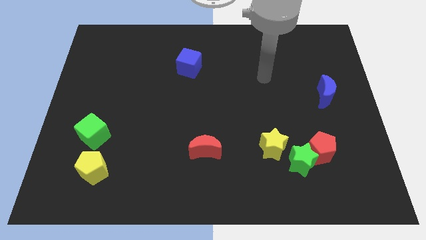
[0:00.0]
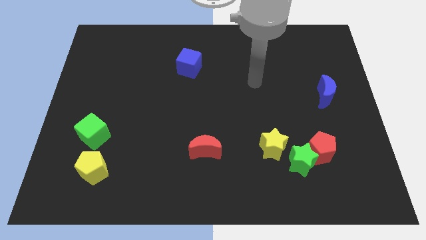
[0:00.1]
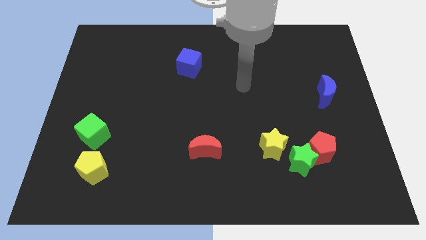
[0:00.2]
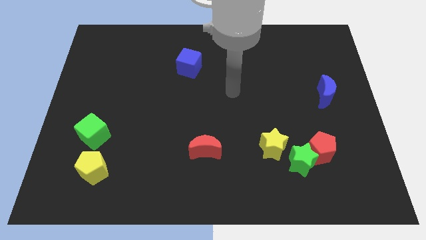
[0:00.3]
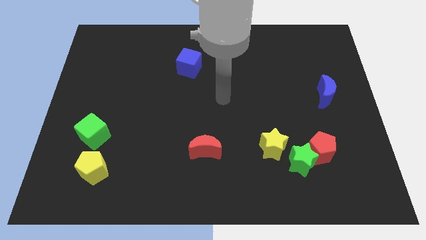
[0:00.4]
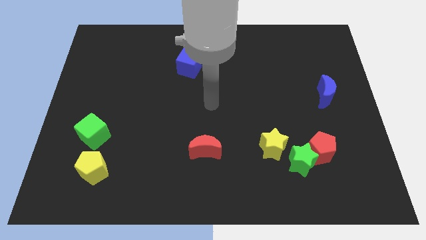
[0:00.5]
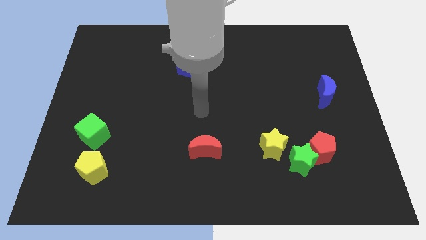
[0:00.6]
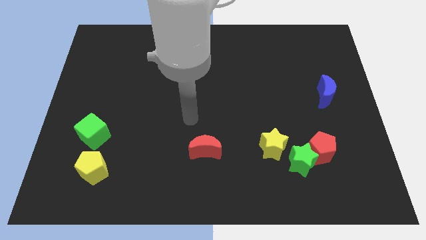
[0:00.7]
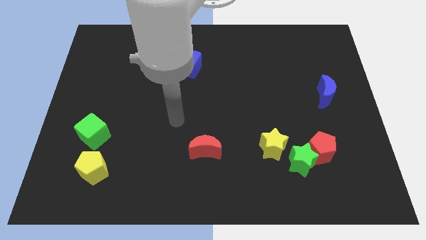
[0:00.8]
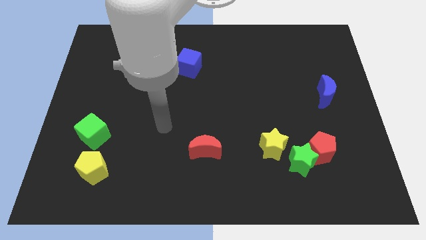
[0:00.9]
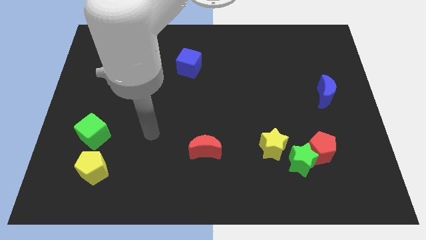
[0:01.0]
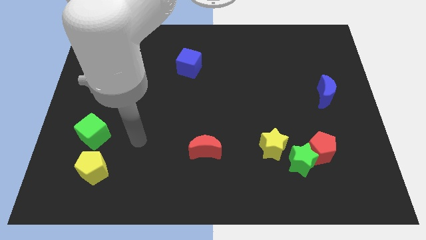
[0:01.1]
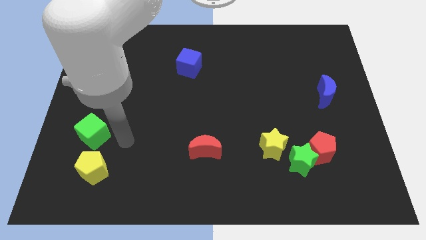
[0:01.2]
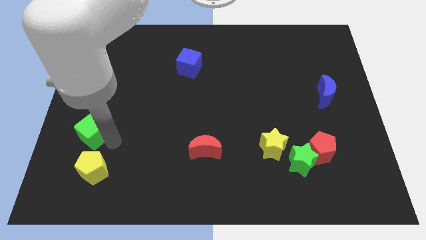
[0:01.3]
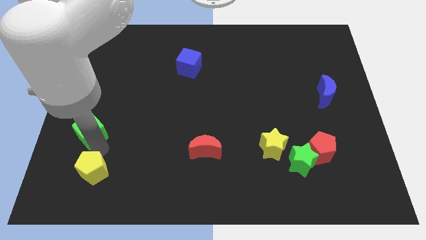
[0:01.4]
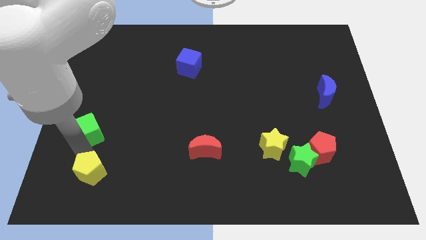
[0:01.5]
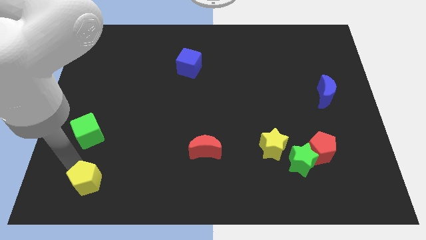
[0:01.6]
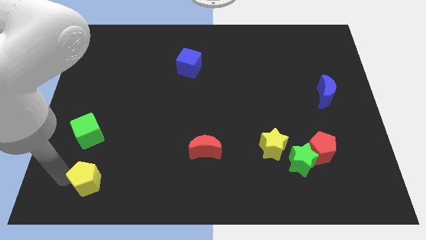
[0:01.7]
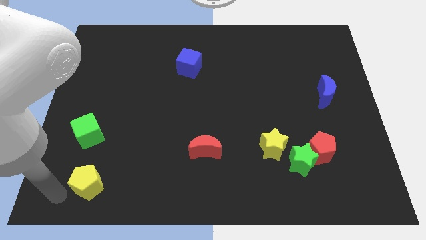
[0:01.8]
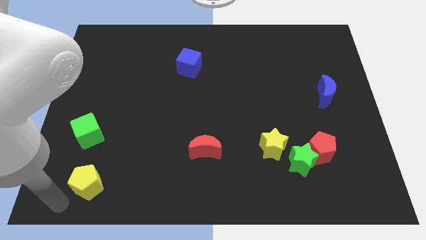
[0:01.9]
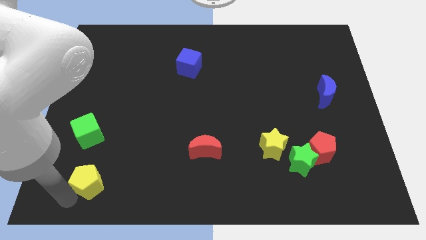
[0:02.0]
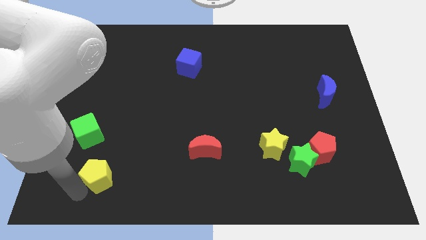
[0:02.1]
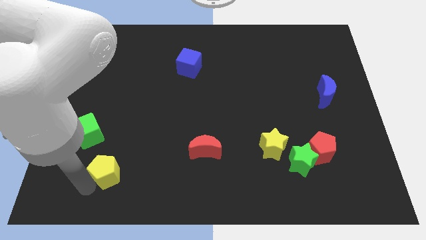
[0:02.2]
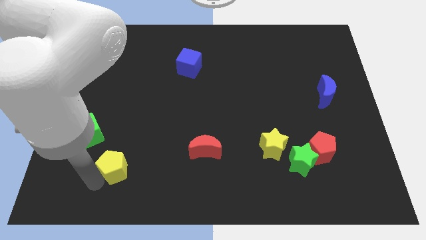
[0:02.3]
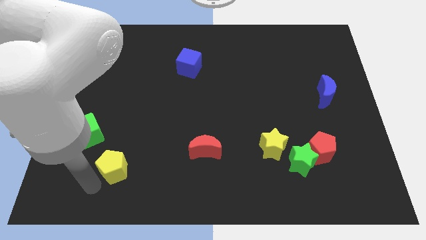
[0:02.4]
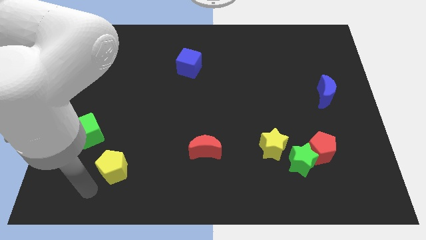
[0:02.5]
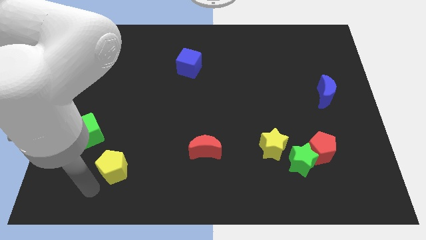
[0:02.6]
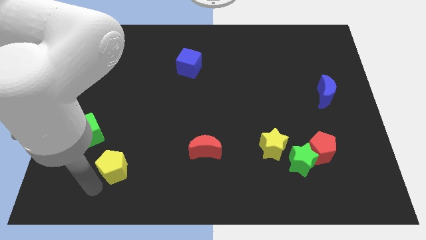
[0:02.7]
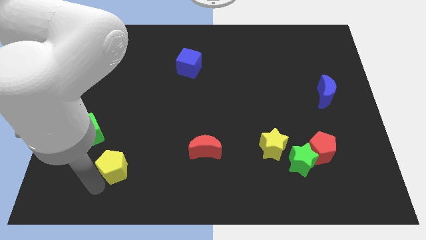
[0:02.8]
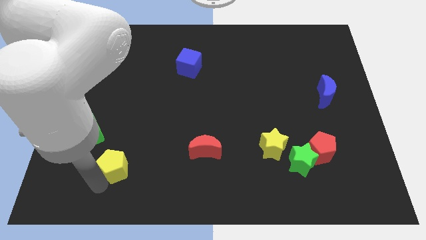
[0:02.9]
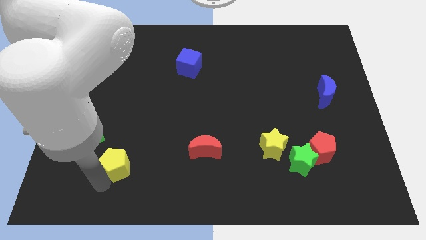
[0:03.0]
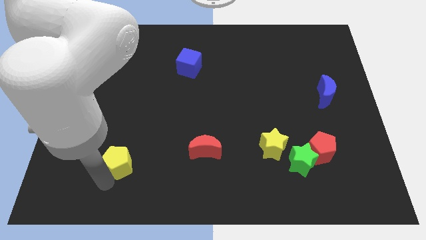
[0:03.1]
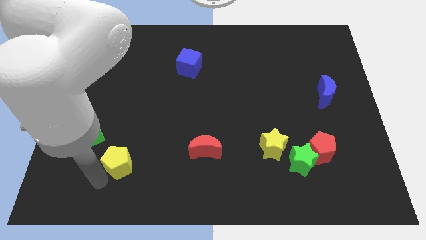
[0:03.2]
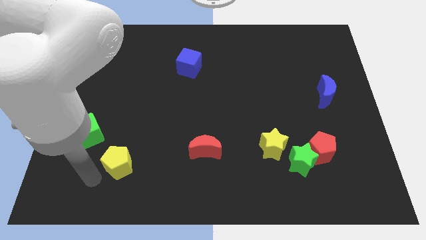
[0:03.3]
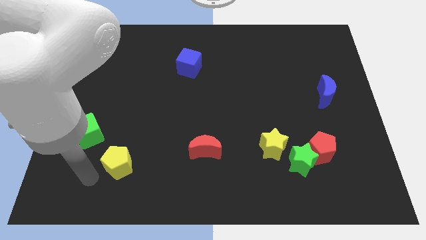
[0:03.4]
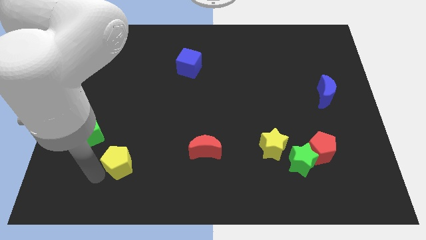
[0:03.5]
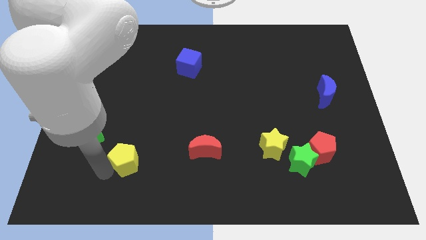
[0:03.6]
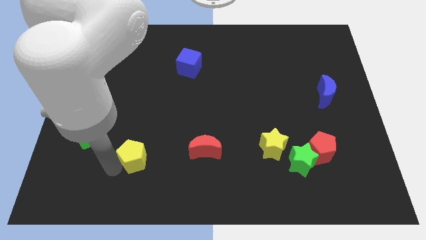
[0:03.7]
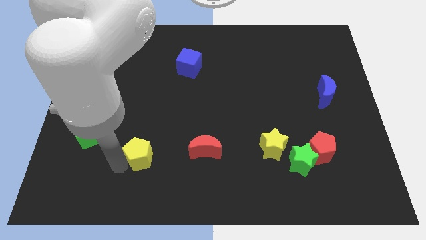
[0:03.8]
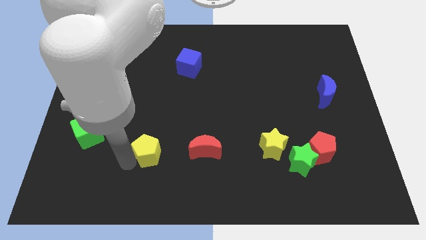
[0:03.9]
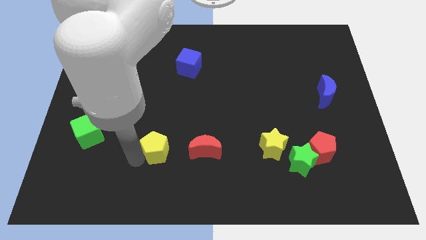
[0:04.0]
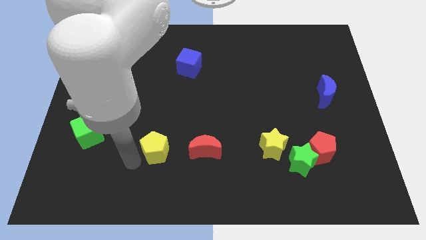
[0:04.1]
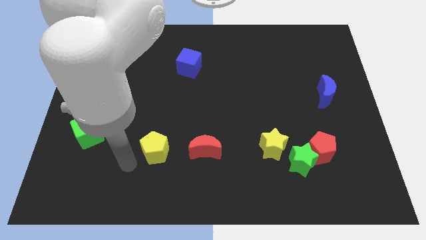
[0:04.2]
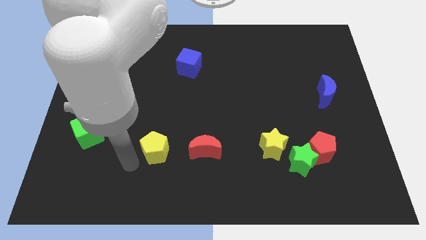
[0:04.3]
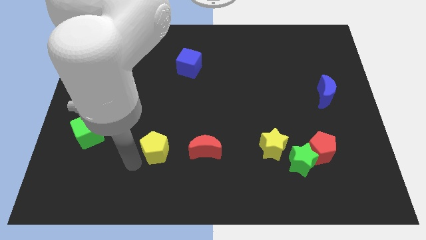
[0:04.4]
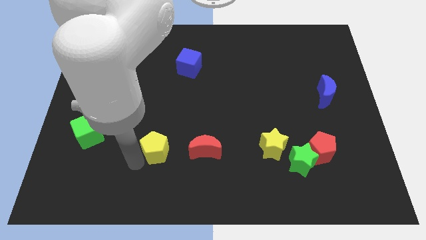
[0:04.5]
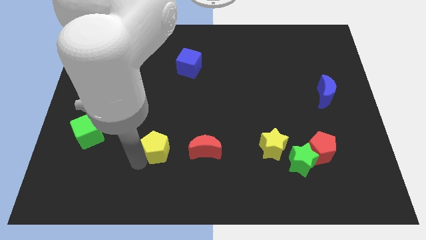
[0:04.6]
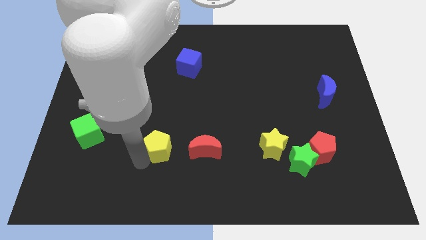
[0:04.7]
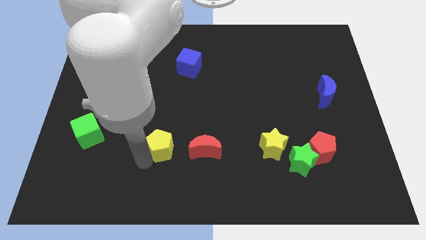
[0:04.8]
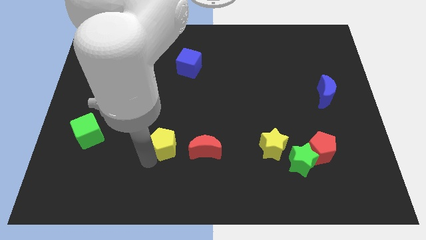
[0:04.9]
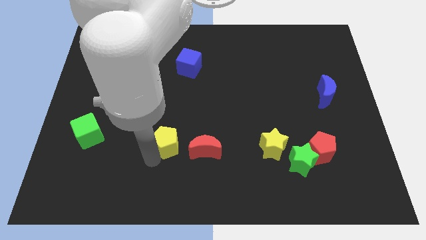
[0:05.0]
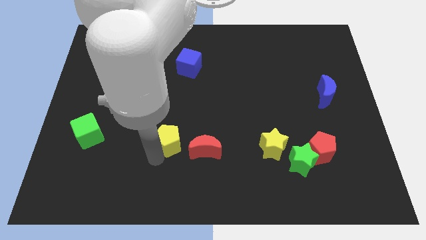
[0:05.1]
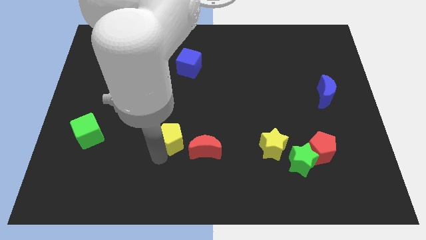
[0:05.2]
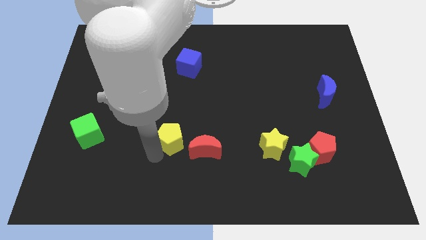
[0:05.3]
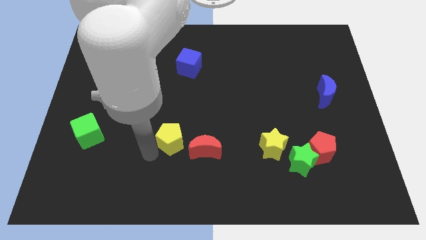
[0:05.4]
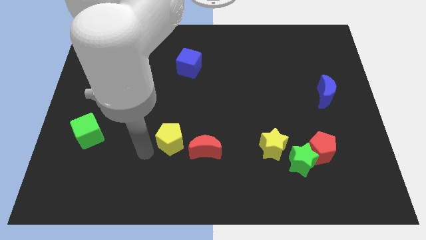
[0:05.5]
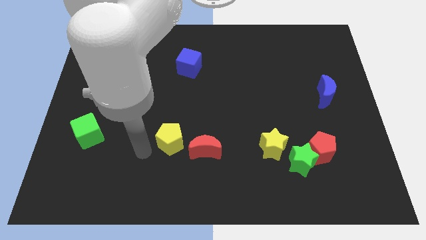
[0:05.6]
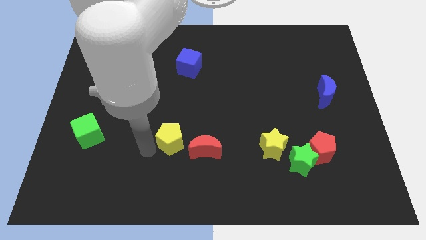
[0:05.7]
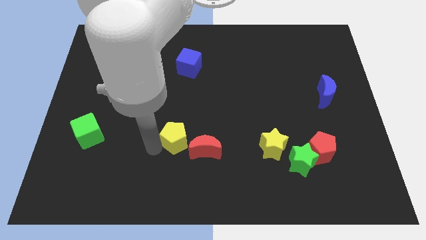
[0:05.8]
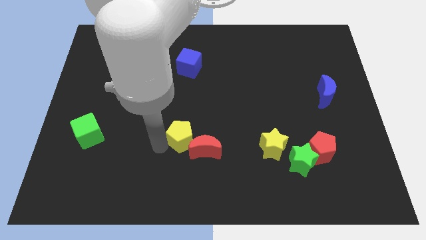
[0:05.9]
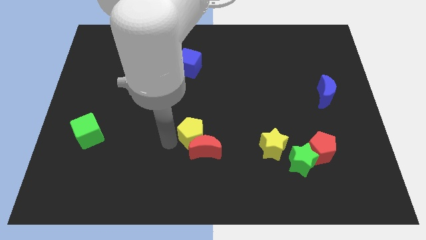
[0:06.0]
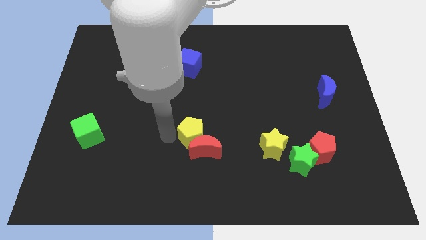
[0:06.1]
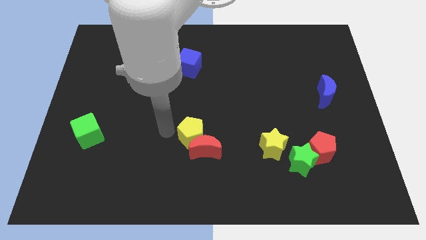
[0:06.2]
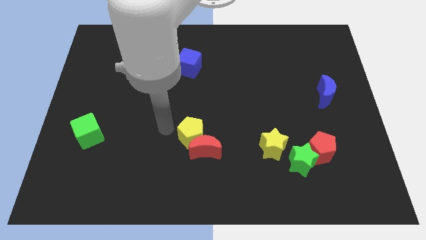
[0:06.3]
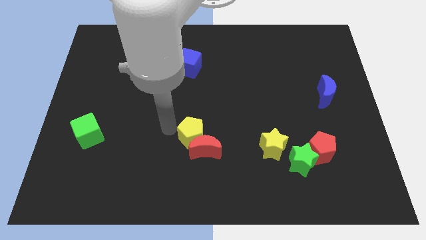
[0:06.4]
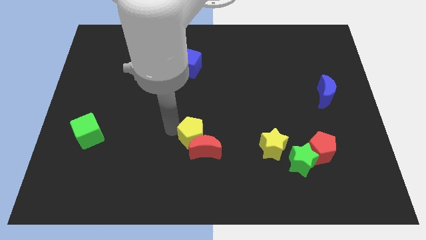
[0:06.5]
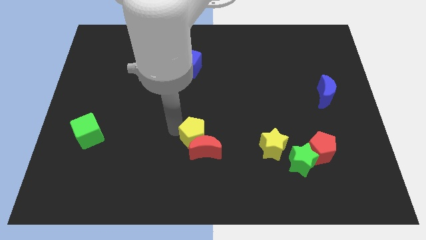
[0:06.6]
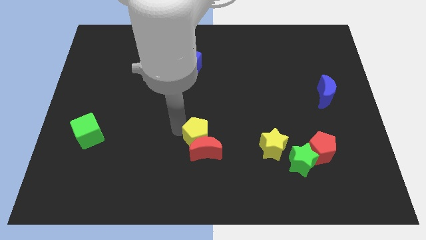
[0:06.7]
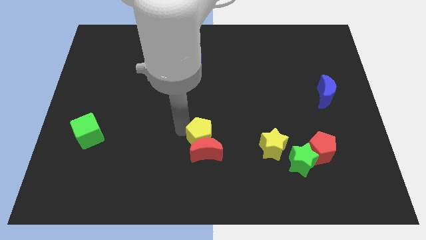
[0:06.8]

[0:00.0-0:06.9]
put the yellow pentagon just left of the yellow star

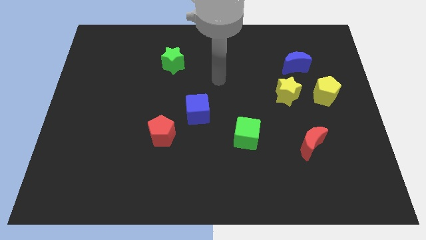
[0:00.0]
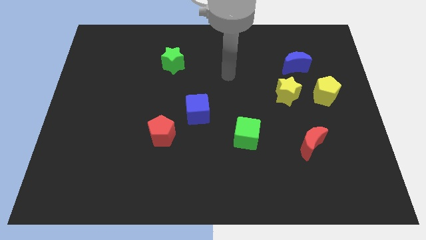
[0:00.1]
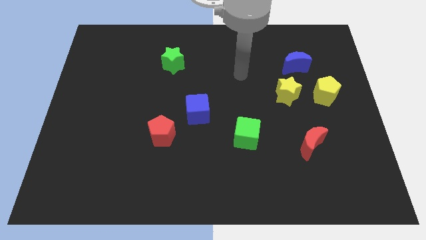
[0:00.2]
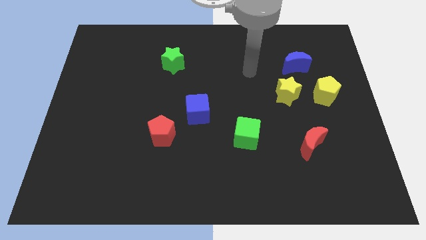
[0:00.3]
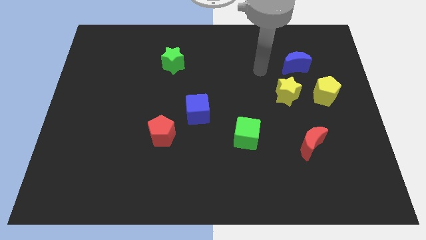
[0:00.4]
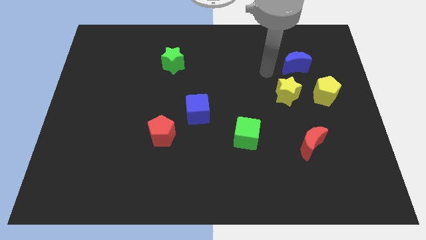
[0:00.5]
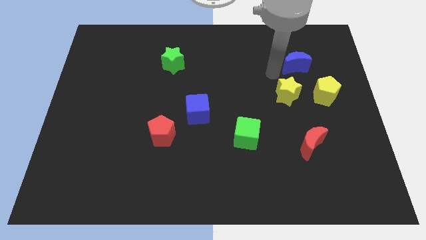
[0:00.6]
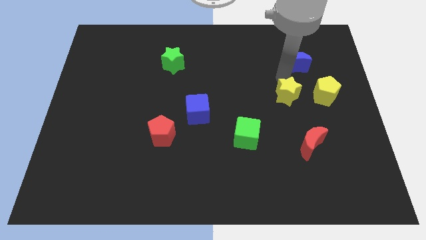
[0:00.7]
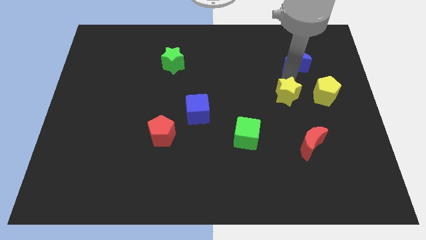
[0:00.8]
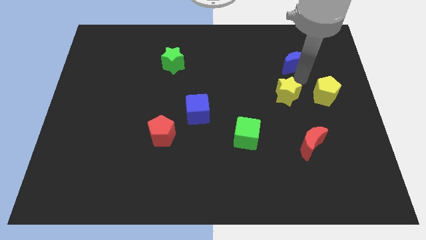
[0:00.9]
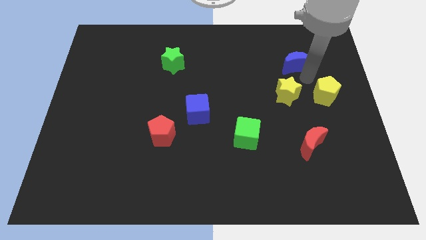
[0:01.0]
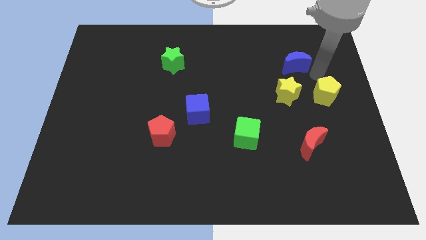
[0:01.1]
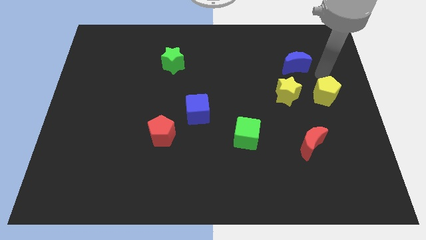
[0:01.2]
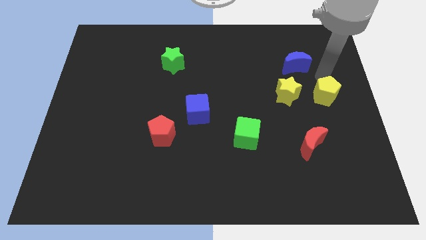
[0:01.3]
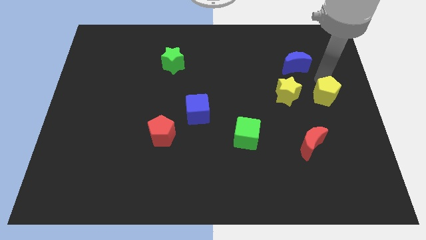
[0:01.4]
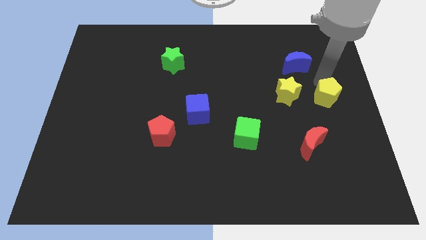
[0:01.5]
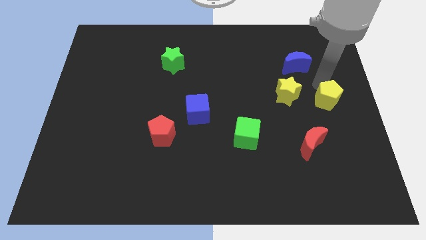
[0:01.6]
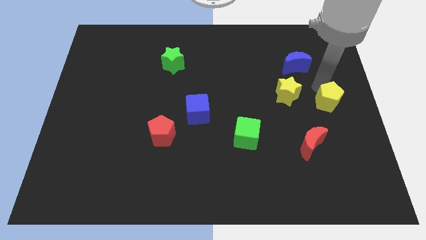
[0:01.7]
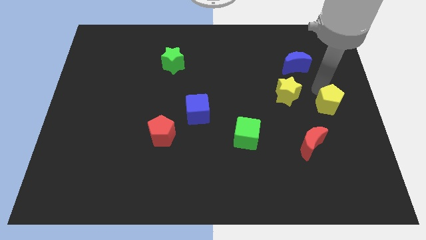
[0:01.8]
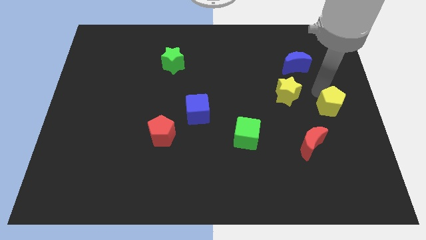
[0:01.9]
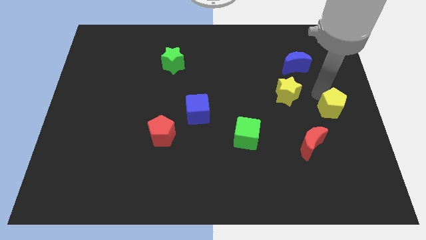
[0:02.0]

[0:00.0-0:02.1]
move the yellow pentagon to the top right of the red moon
